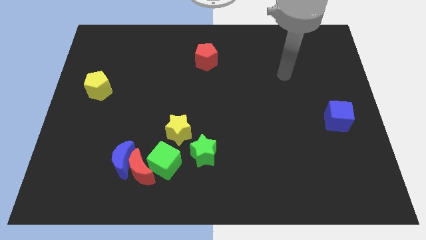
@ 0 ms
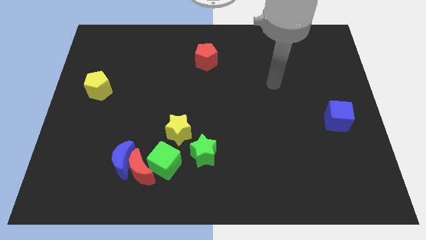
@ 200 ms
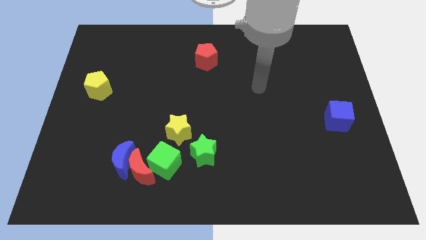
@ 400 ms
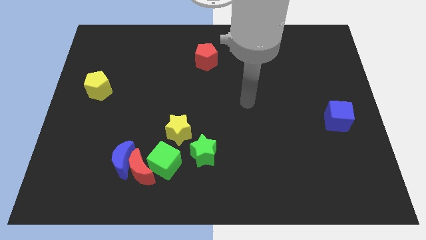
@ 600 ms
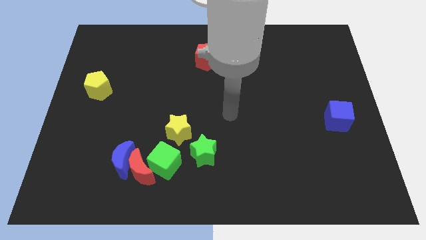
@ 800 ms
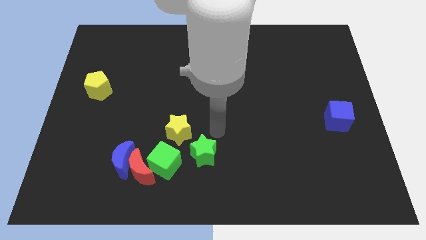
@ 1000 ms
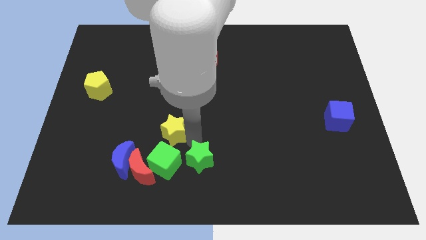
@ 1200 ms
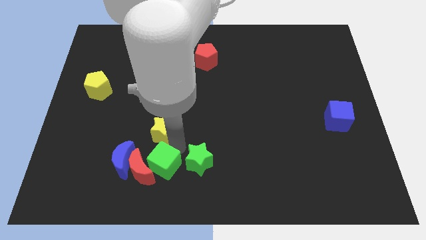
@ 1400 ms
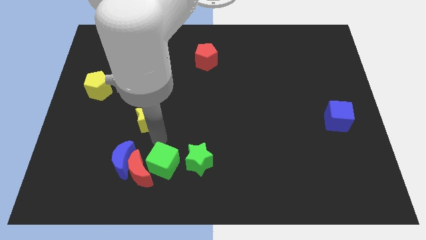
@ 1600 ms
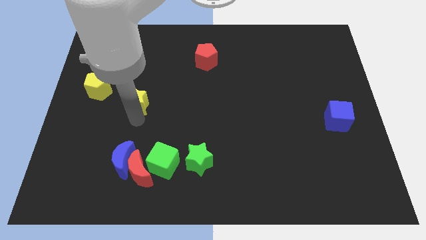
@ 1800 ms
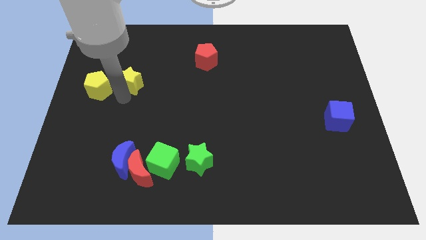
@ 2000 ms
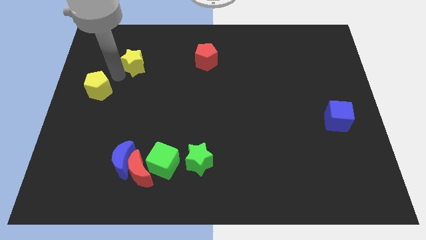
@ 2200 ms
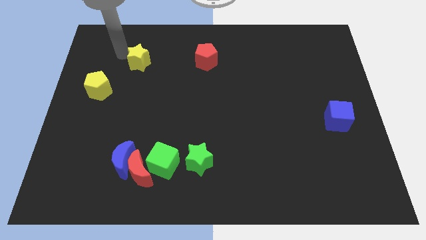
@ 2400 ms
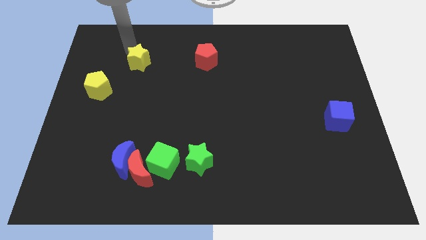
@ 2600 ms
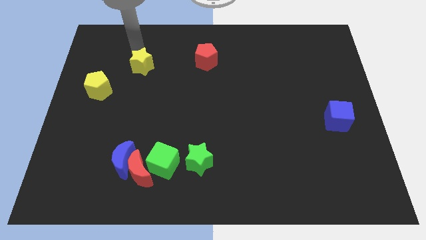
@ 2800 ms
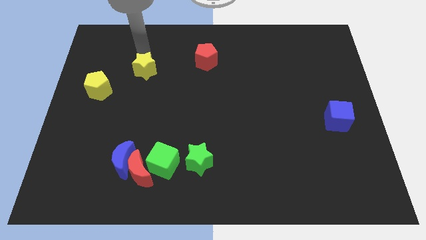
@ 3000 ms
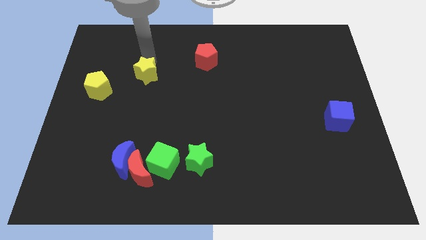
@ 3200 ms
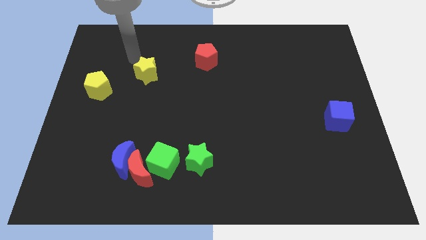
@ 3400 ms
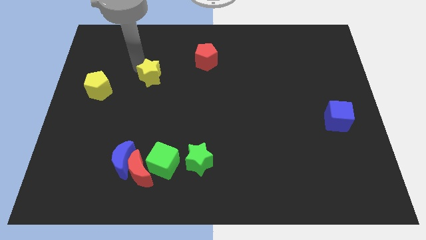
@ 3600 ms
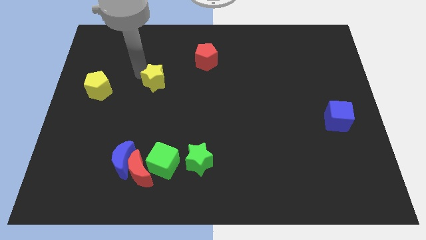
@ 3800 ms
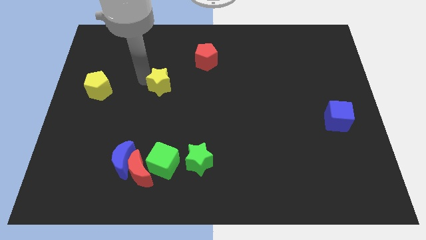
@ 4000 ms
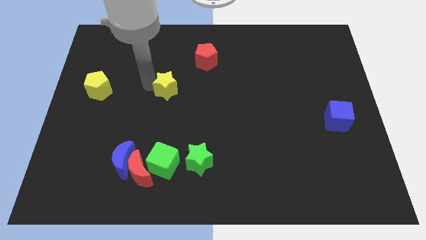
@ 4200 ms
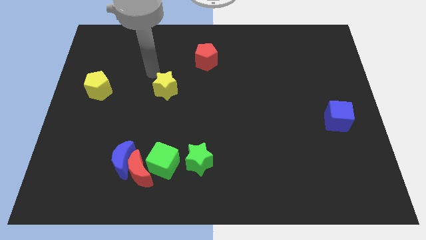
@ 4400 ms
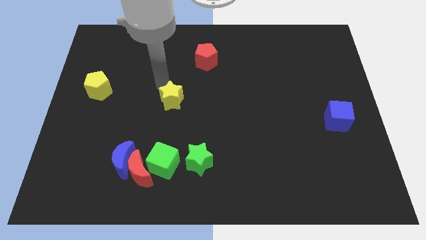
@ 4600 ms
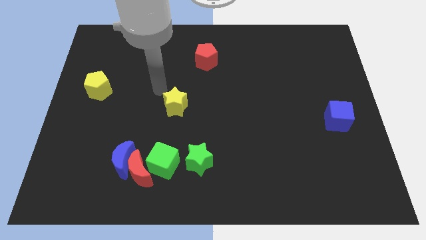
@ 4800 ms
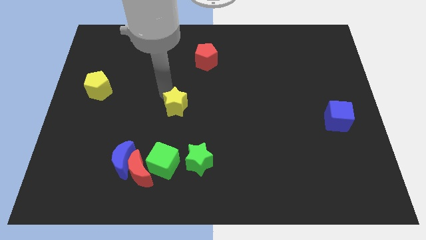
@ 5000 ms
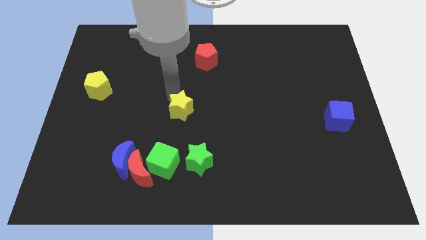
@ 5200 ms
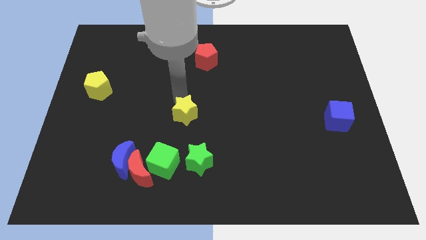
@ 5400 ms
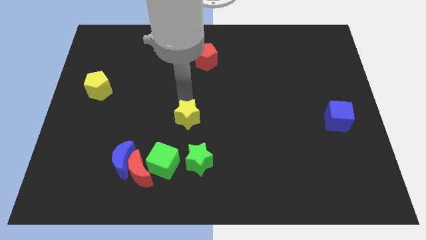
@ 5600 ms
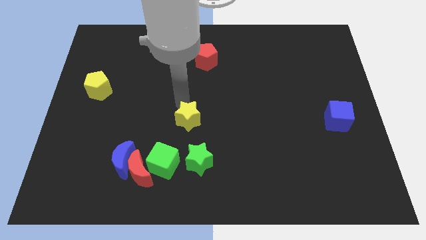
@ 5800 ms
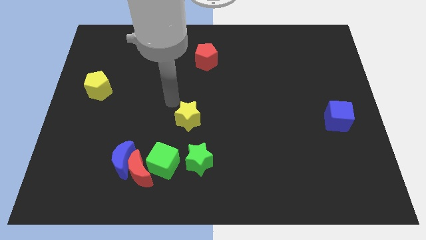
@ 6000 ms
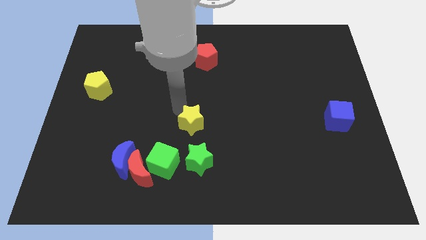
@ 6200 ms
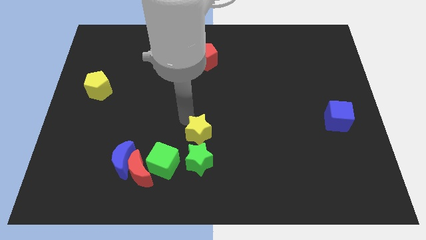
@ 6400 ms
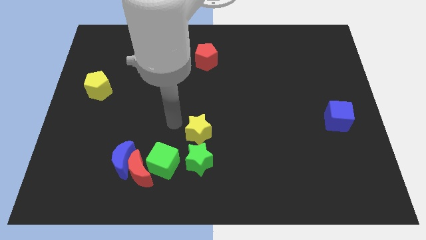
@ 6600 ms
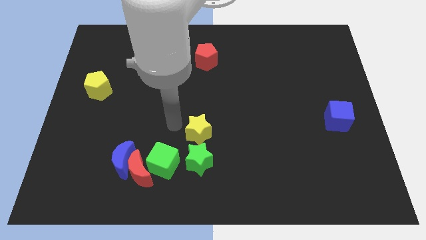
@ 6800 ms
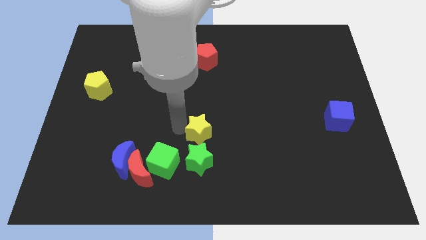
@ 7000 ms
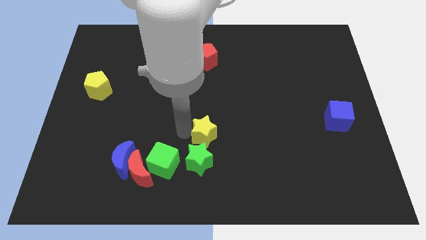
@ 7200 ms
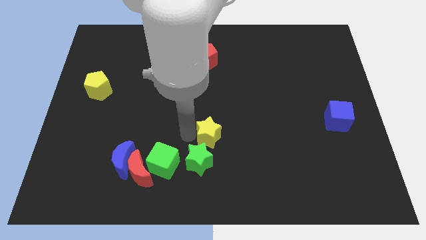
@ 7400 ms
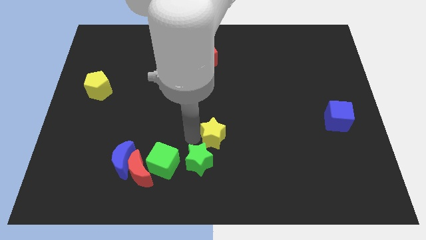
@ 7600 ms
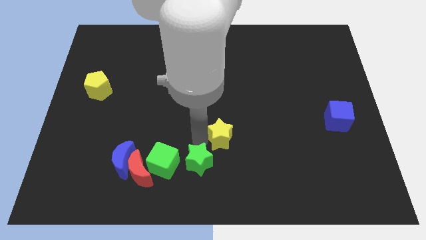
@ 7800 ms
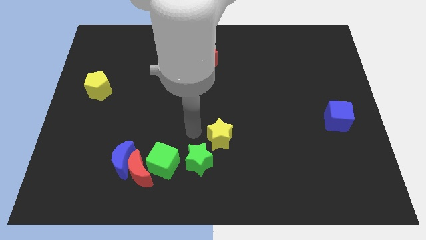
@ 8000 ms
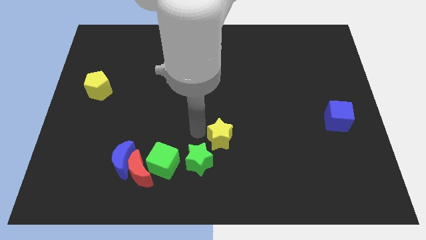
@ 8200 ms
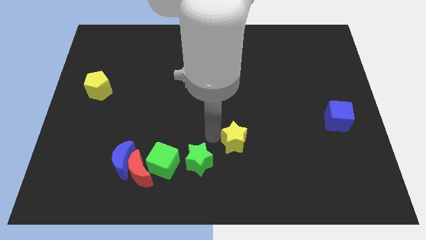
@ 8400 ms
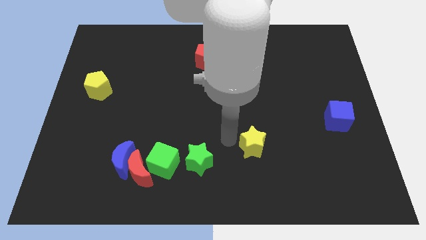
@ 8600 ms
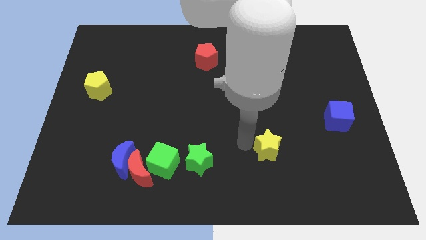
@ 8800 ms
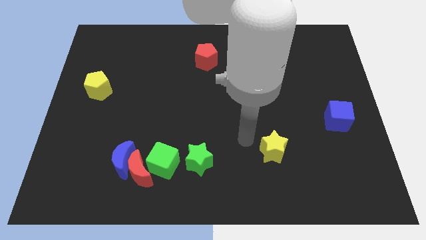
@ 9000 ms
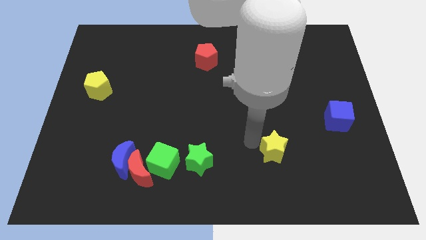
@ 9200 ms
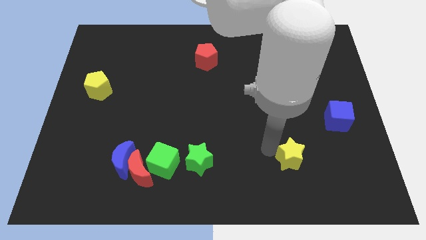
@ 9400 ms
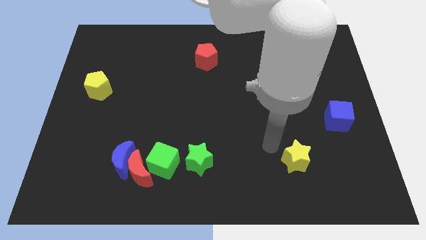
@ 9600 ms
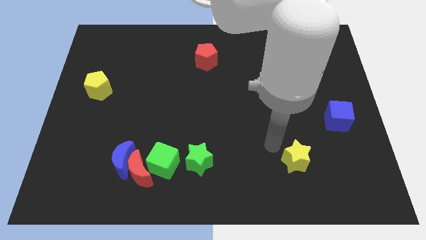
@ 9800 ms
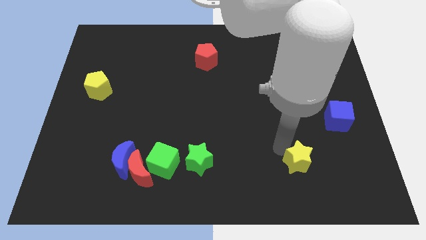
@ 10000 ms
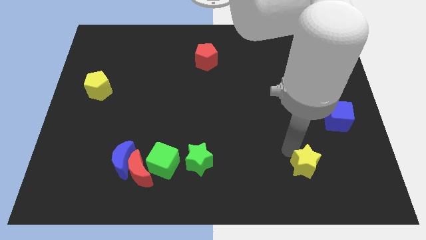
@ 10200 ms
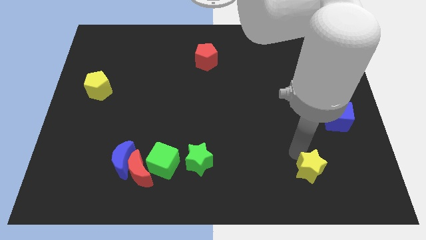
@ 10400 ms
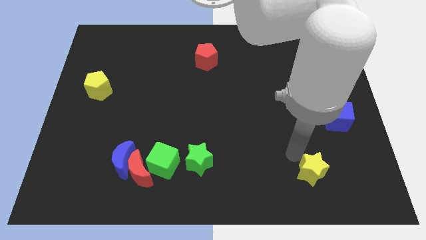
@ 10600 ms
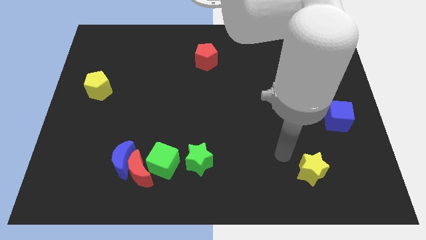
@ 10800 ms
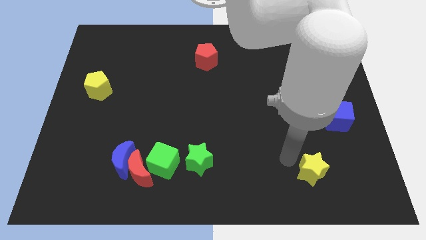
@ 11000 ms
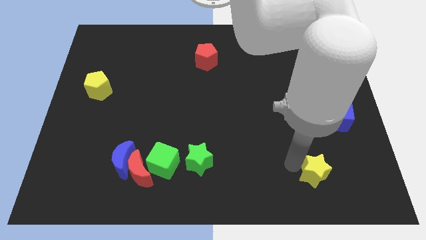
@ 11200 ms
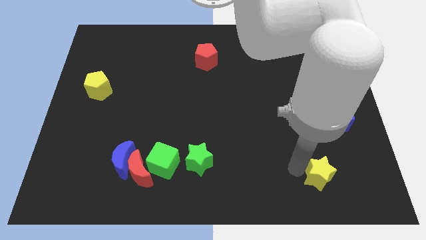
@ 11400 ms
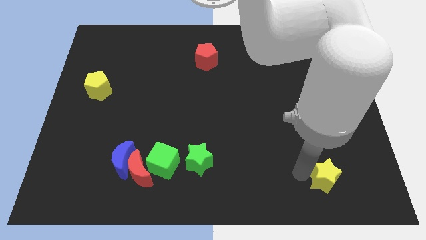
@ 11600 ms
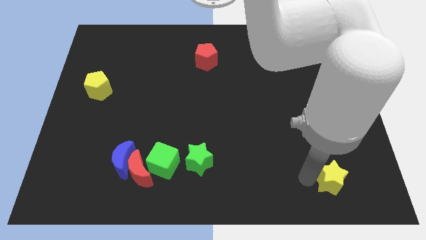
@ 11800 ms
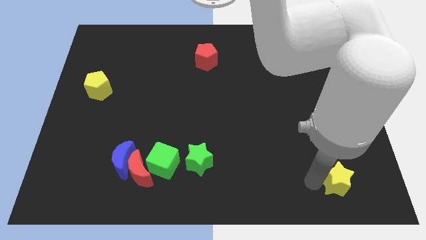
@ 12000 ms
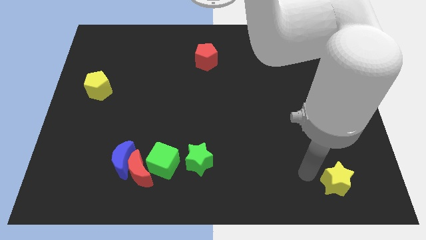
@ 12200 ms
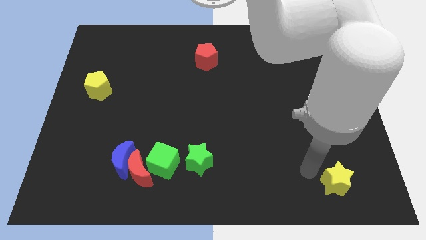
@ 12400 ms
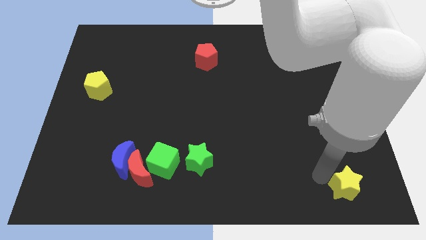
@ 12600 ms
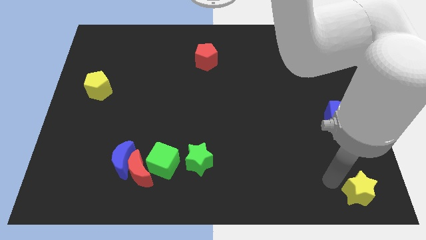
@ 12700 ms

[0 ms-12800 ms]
slide the yellow star to the bottom right

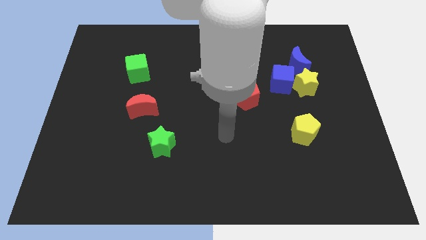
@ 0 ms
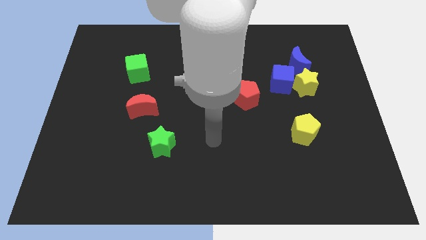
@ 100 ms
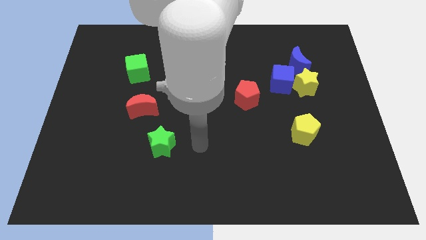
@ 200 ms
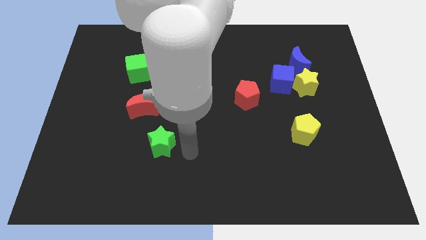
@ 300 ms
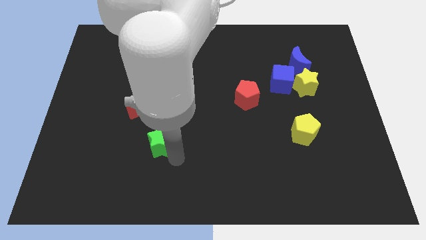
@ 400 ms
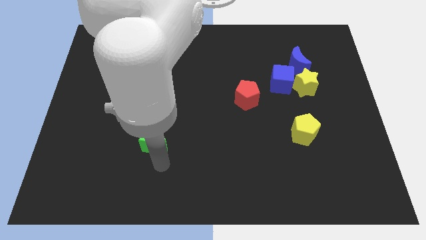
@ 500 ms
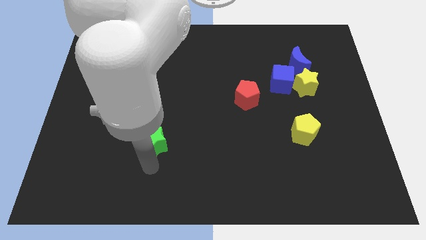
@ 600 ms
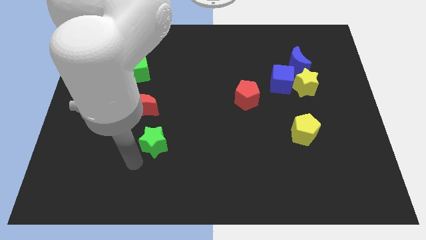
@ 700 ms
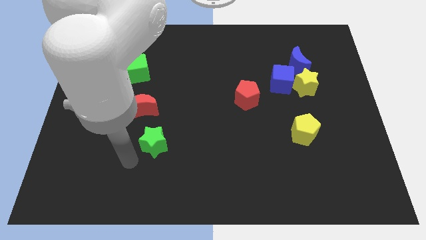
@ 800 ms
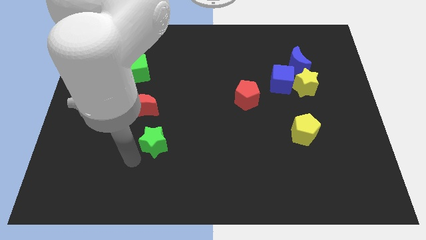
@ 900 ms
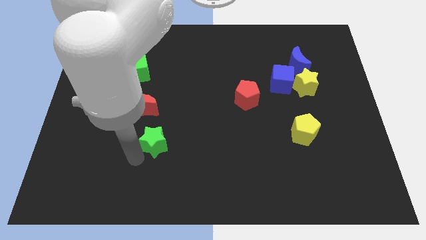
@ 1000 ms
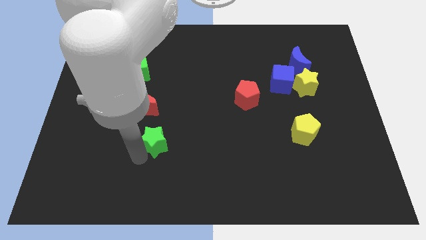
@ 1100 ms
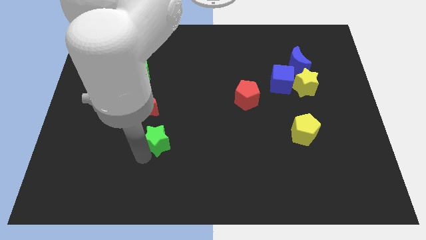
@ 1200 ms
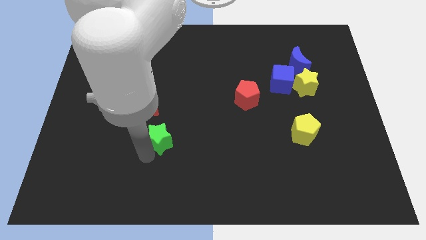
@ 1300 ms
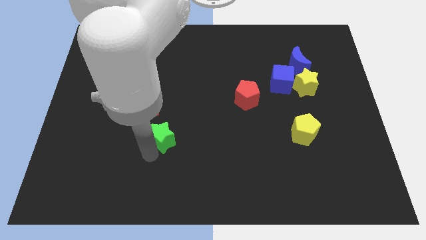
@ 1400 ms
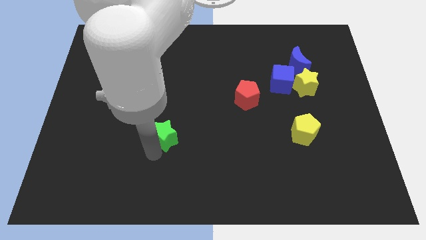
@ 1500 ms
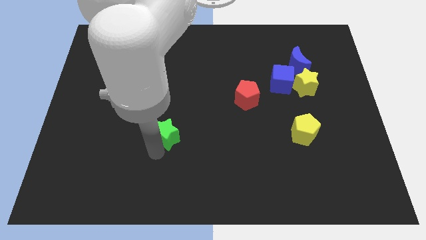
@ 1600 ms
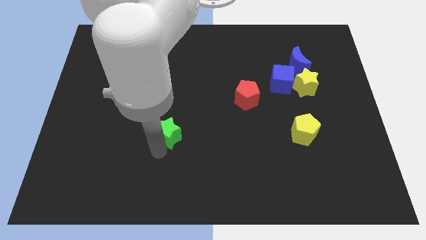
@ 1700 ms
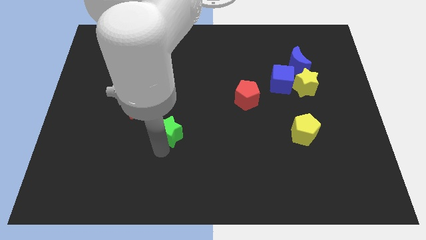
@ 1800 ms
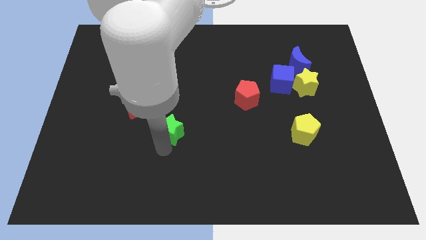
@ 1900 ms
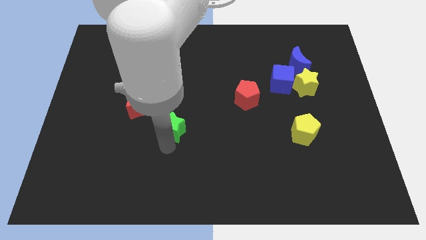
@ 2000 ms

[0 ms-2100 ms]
move the green star to the center of the board
